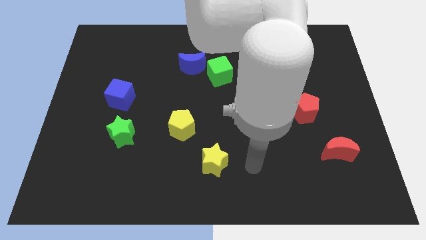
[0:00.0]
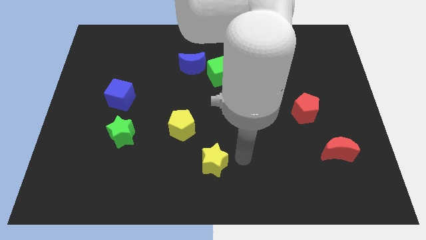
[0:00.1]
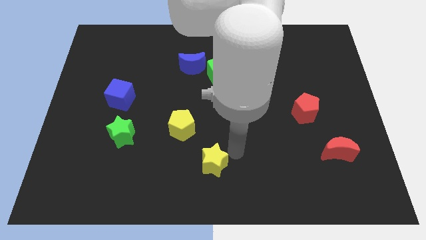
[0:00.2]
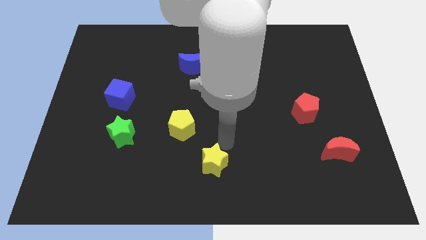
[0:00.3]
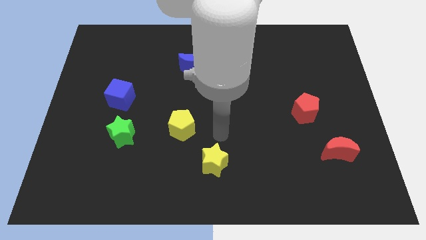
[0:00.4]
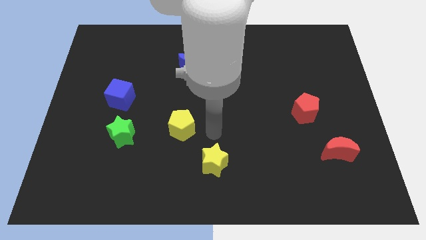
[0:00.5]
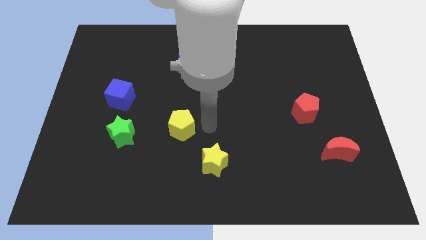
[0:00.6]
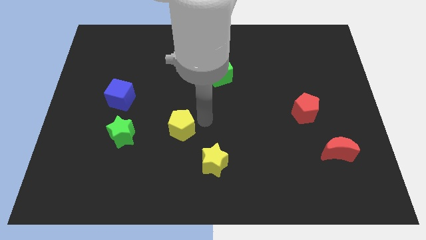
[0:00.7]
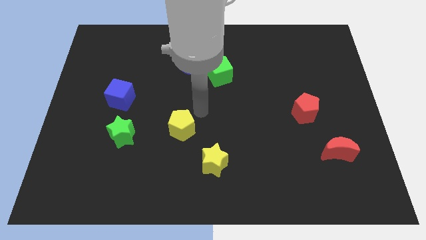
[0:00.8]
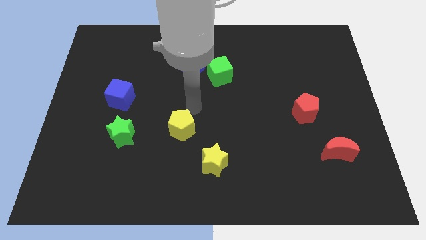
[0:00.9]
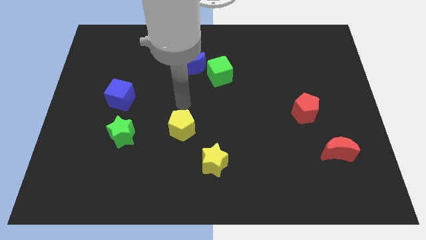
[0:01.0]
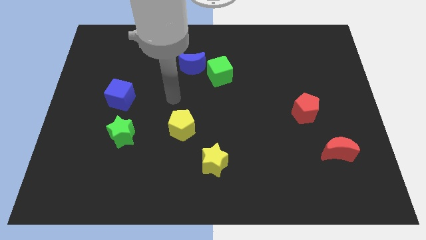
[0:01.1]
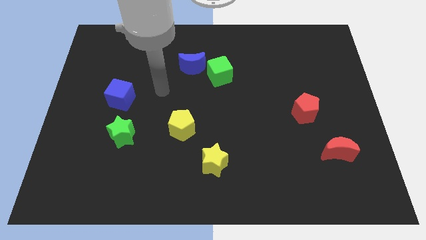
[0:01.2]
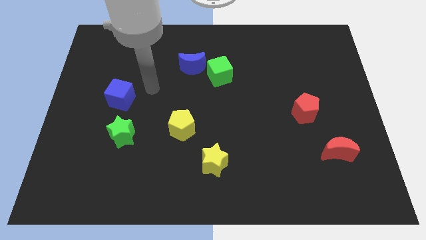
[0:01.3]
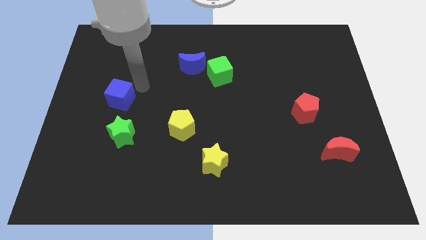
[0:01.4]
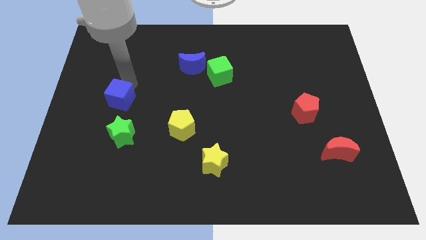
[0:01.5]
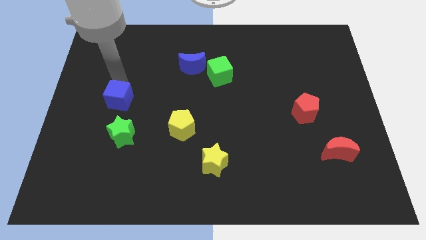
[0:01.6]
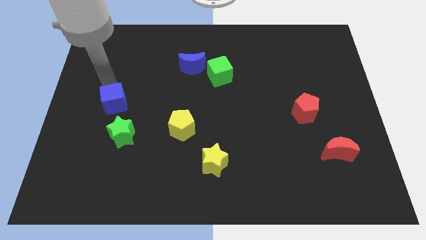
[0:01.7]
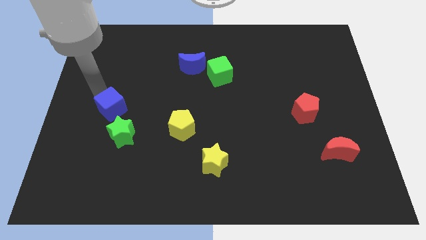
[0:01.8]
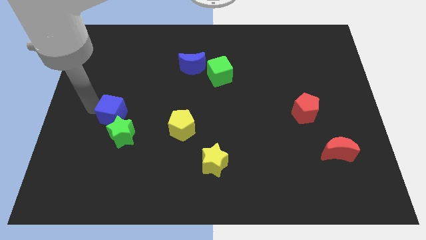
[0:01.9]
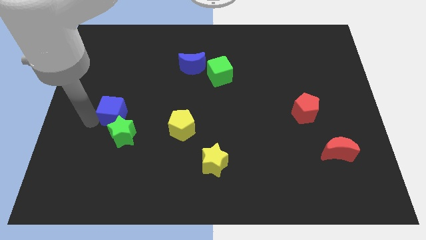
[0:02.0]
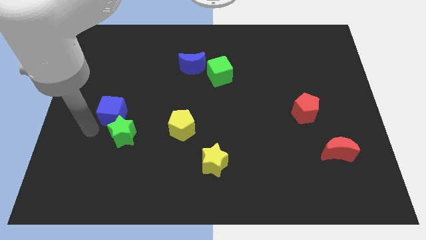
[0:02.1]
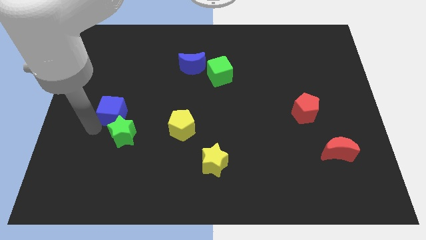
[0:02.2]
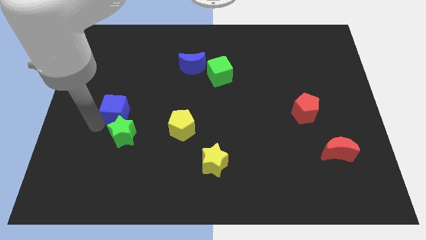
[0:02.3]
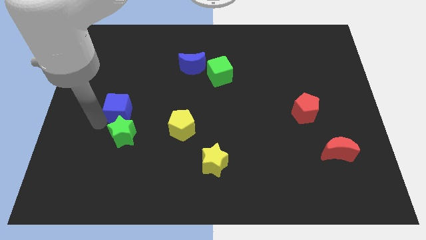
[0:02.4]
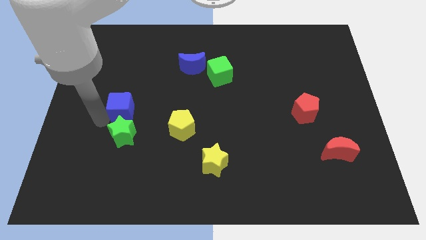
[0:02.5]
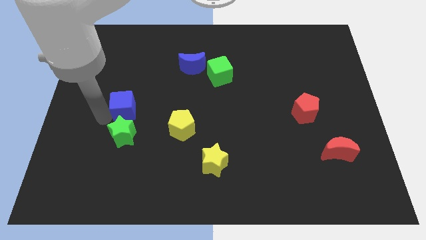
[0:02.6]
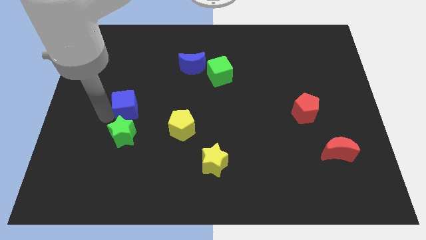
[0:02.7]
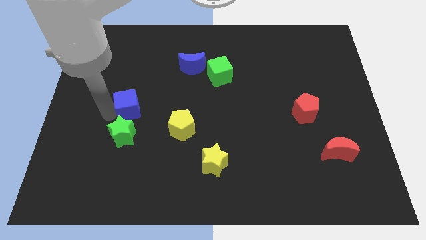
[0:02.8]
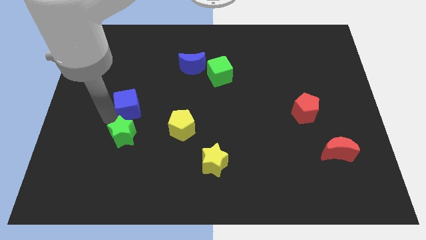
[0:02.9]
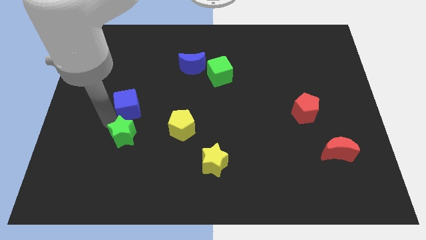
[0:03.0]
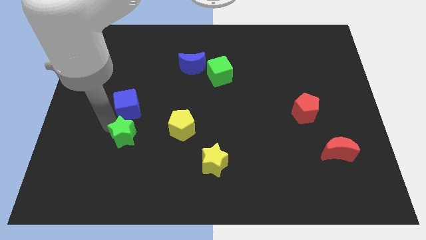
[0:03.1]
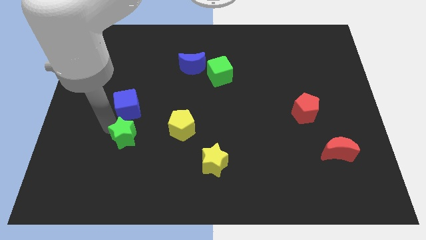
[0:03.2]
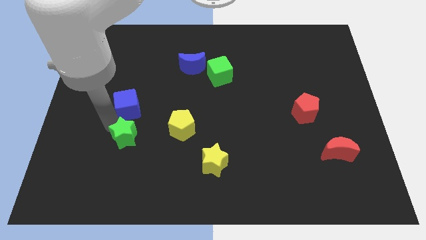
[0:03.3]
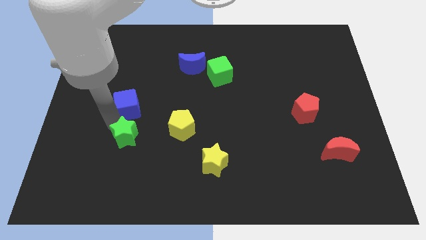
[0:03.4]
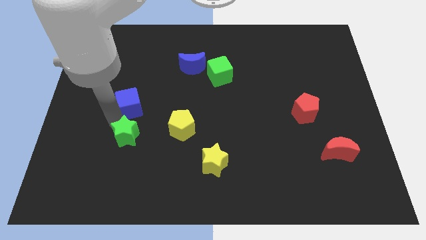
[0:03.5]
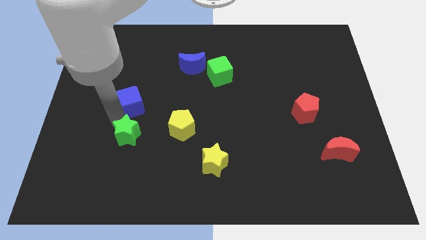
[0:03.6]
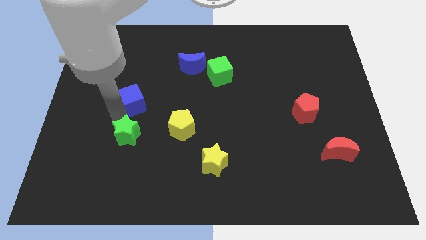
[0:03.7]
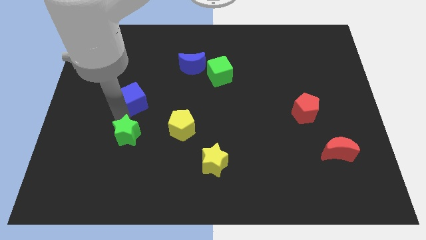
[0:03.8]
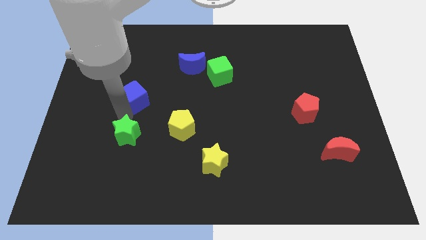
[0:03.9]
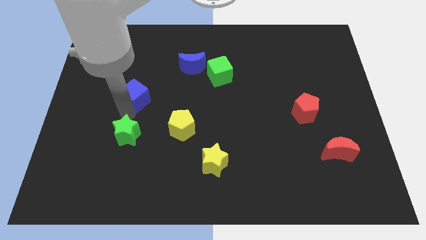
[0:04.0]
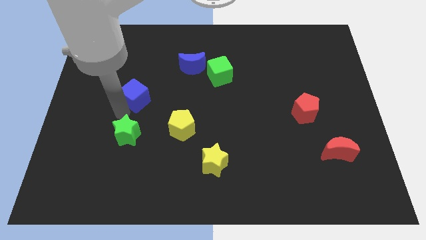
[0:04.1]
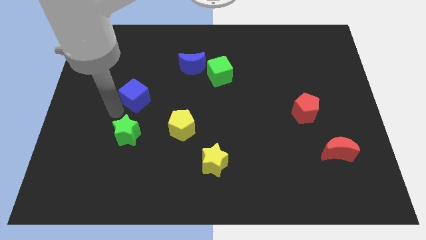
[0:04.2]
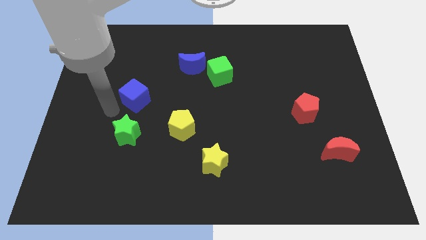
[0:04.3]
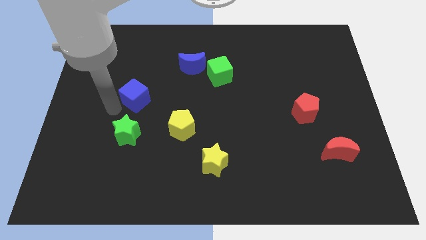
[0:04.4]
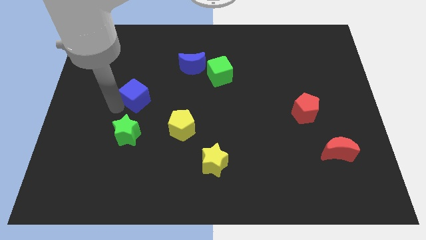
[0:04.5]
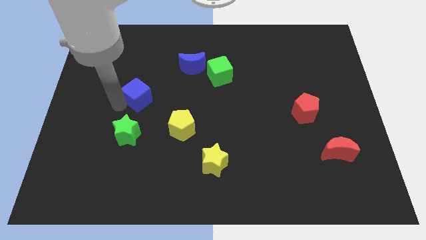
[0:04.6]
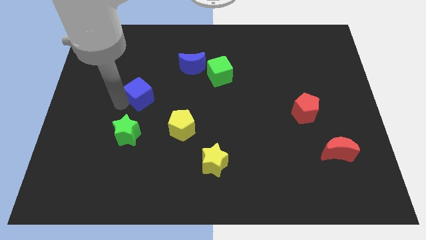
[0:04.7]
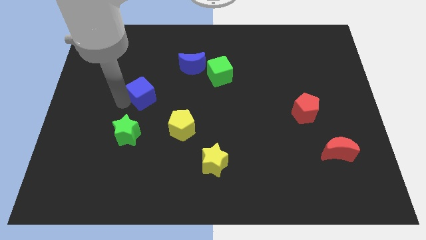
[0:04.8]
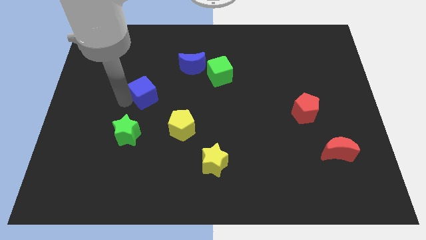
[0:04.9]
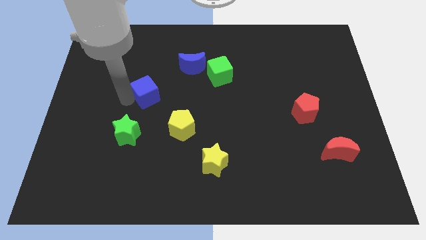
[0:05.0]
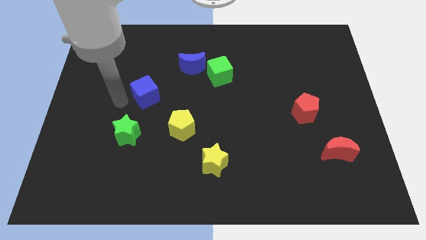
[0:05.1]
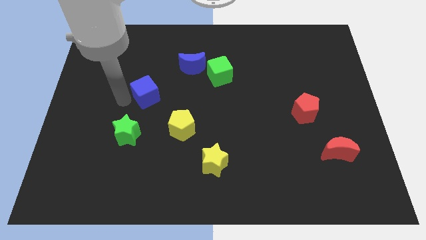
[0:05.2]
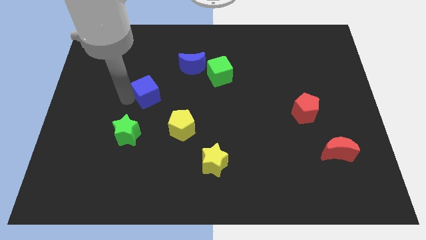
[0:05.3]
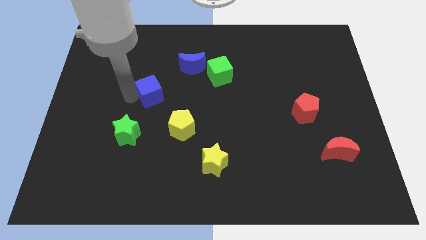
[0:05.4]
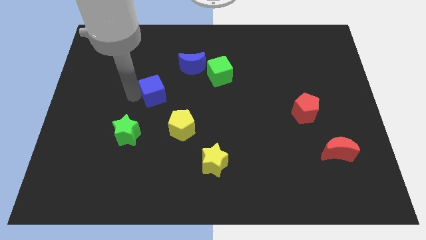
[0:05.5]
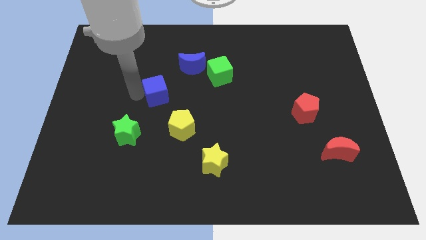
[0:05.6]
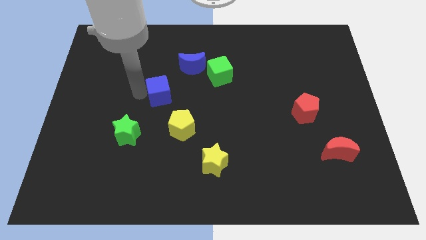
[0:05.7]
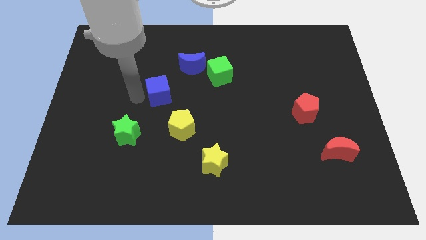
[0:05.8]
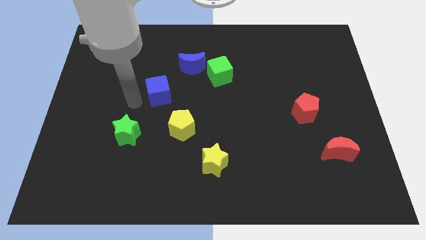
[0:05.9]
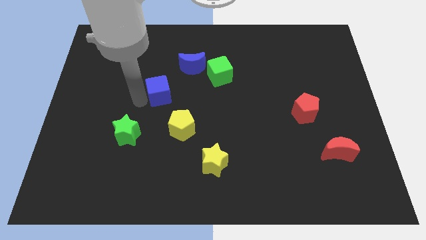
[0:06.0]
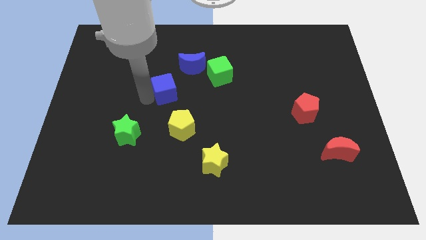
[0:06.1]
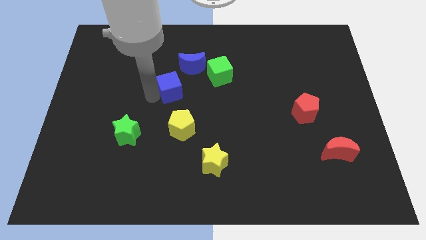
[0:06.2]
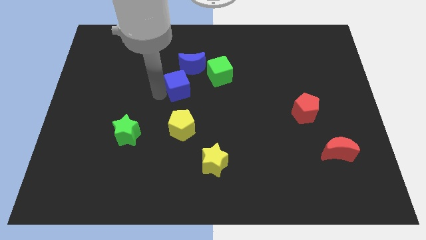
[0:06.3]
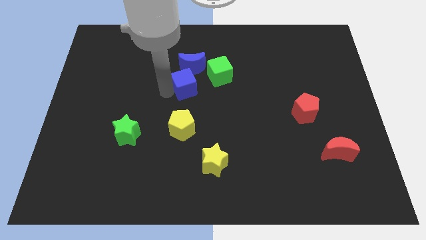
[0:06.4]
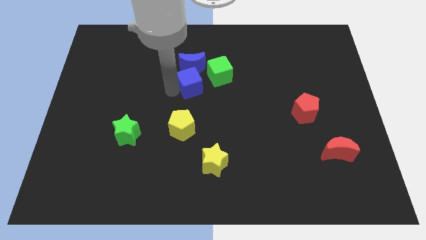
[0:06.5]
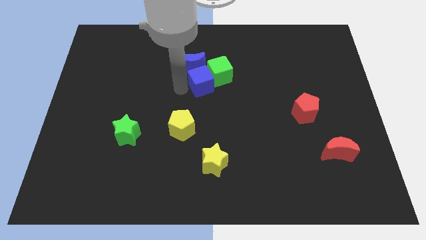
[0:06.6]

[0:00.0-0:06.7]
move the blue cube towards the green cube
